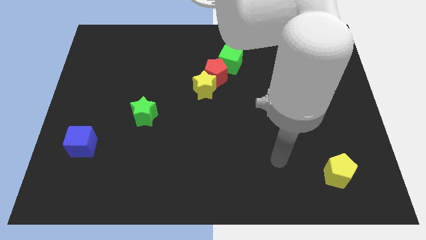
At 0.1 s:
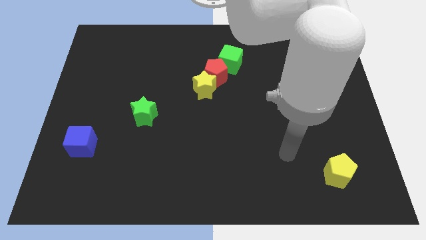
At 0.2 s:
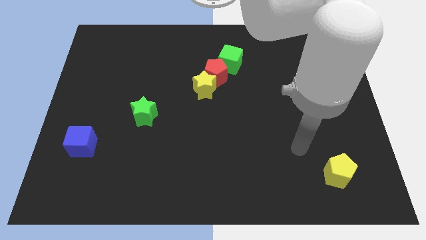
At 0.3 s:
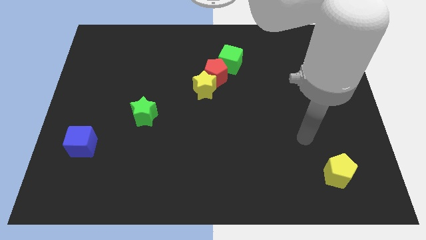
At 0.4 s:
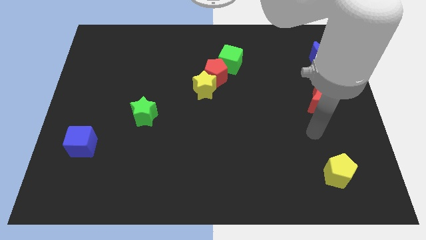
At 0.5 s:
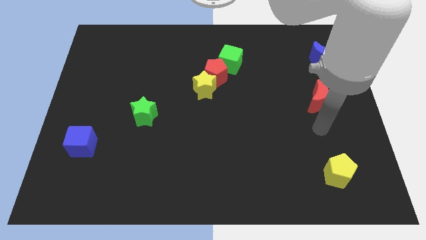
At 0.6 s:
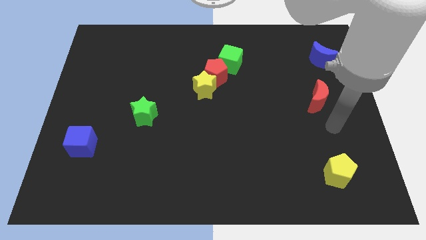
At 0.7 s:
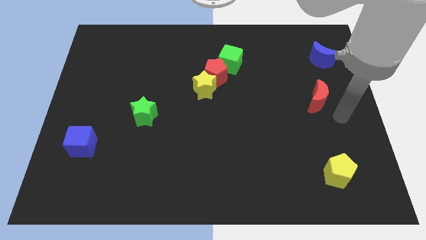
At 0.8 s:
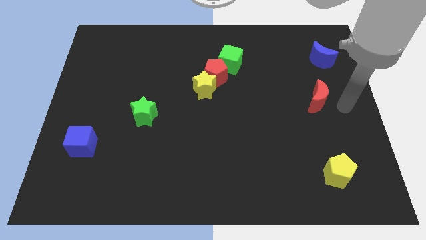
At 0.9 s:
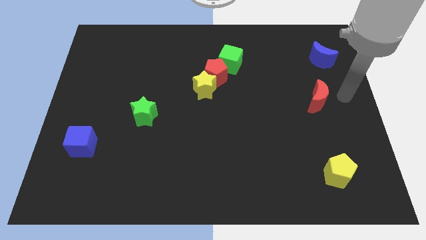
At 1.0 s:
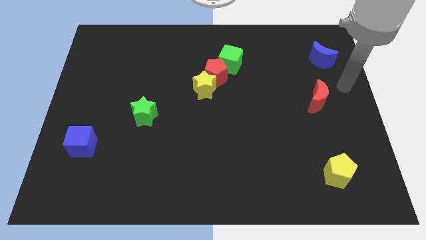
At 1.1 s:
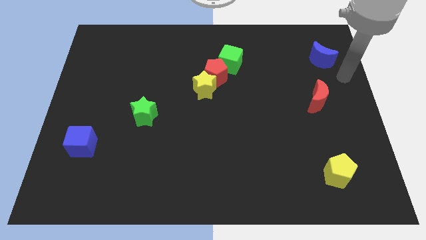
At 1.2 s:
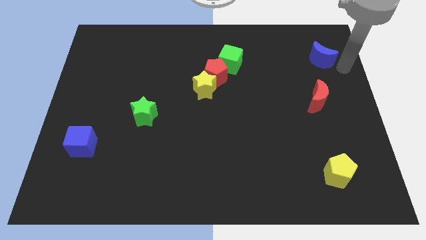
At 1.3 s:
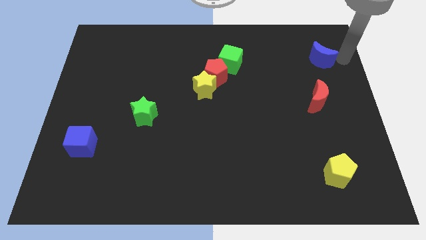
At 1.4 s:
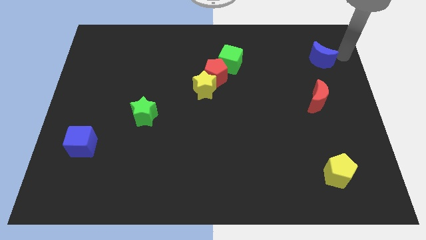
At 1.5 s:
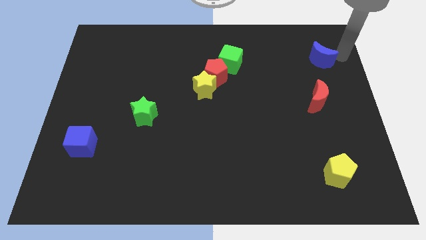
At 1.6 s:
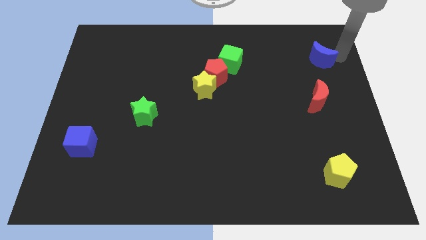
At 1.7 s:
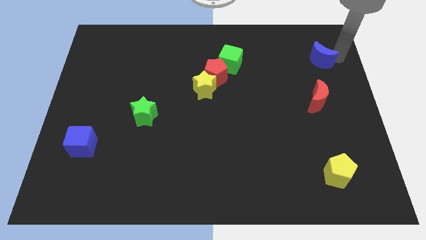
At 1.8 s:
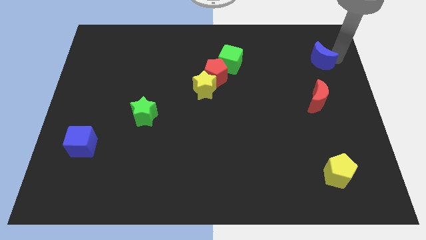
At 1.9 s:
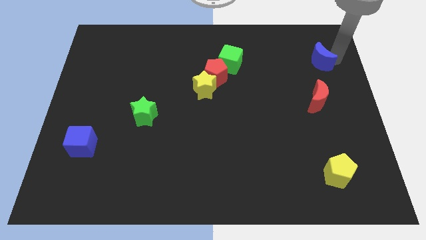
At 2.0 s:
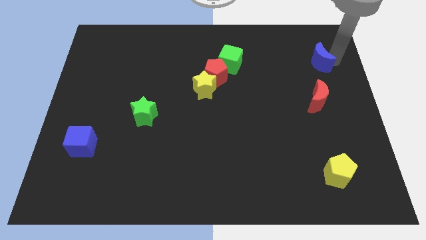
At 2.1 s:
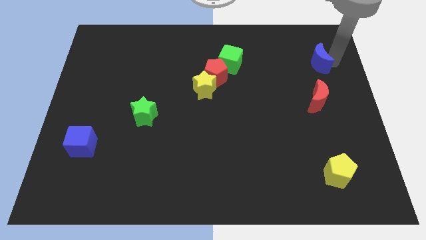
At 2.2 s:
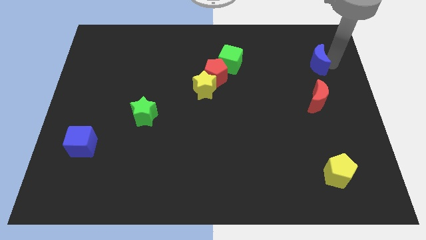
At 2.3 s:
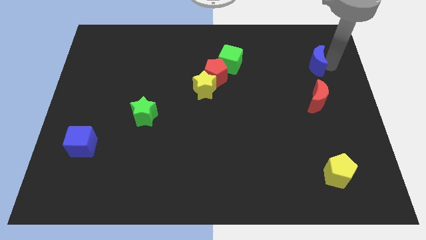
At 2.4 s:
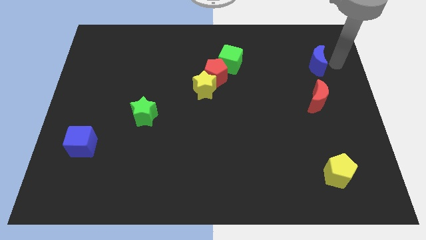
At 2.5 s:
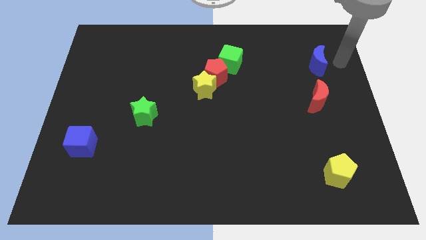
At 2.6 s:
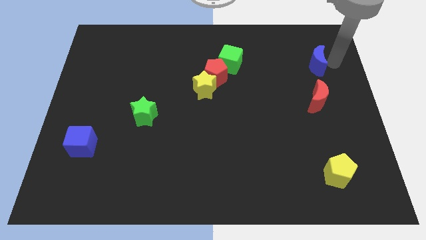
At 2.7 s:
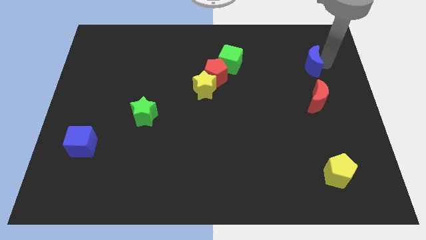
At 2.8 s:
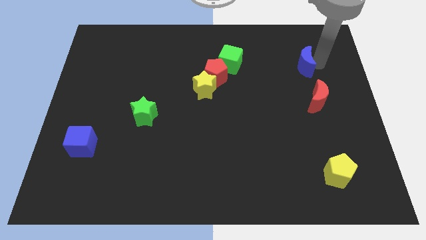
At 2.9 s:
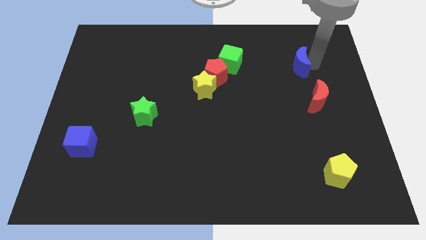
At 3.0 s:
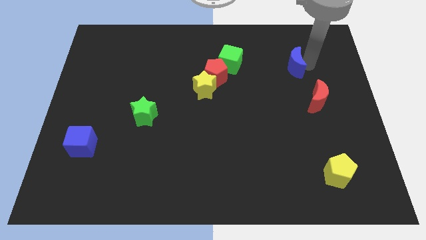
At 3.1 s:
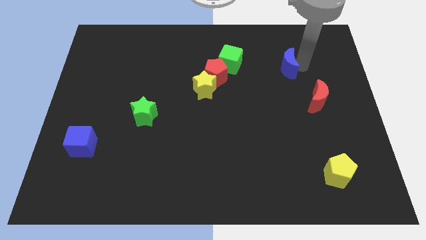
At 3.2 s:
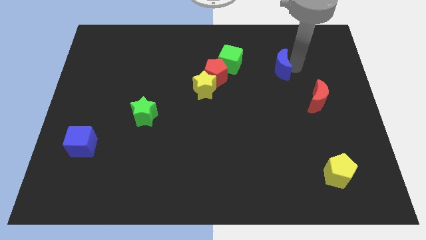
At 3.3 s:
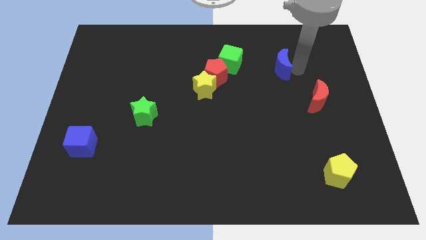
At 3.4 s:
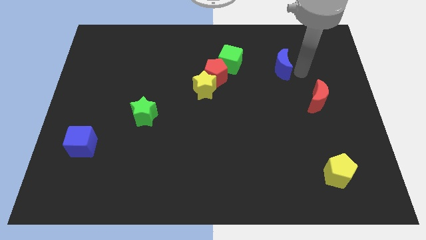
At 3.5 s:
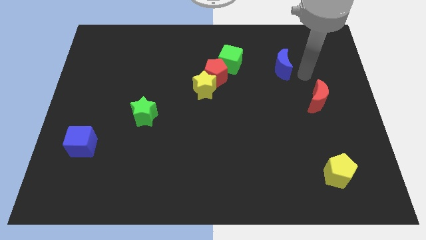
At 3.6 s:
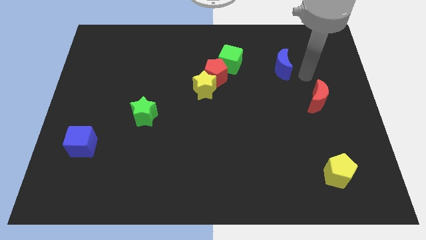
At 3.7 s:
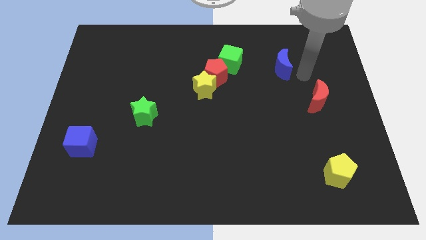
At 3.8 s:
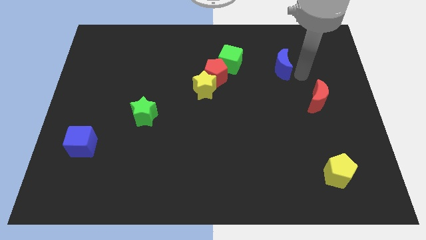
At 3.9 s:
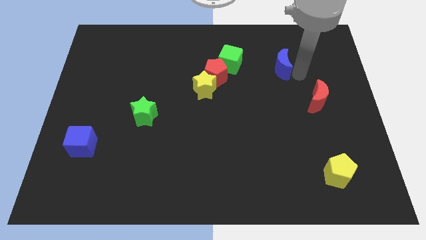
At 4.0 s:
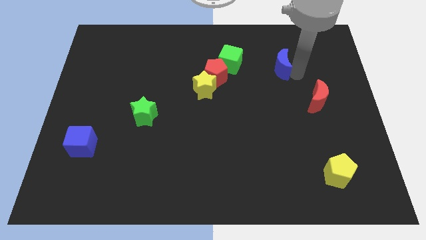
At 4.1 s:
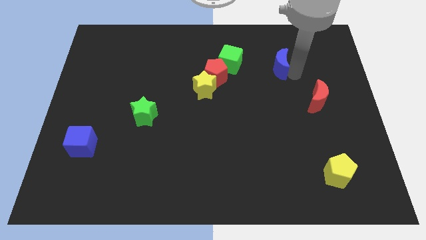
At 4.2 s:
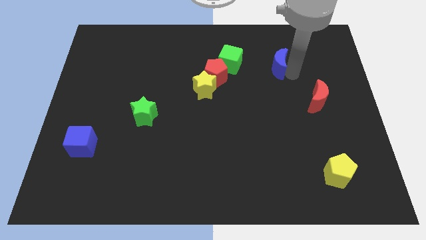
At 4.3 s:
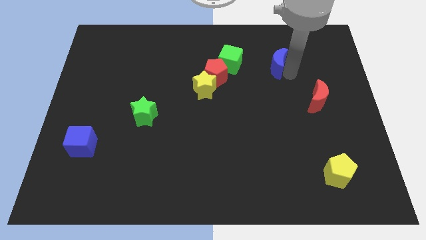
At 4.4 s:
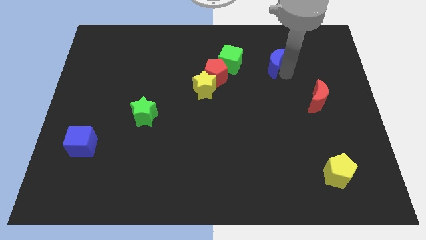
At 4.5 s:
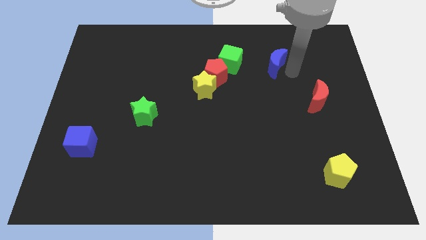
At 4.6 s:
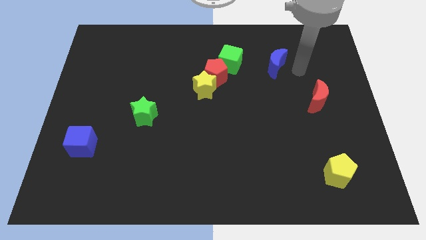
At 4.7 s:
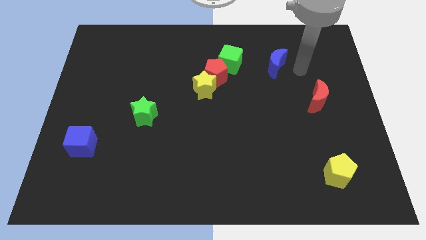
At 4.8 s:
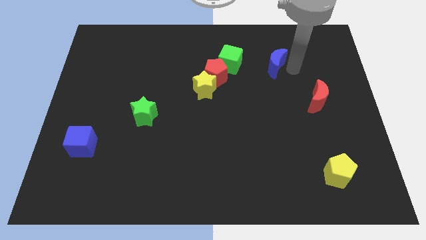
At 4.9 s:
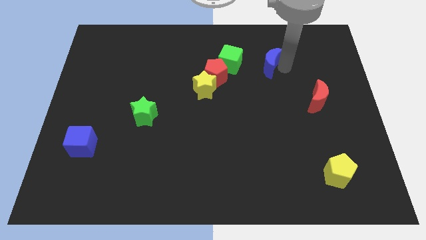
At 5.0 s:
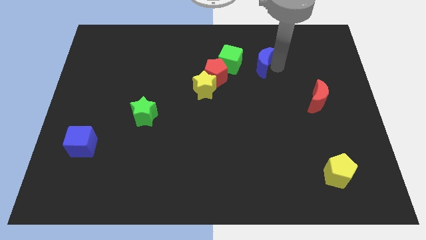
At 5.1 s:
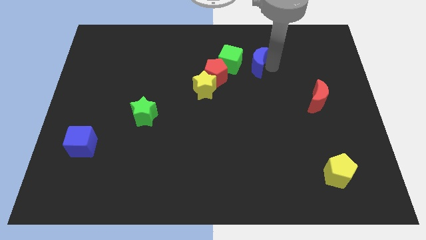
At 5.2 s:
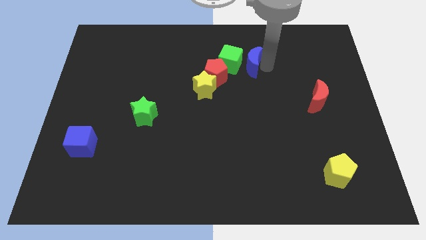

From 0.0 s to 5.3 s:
move the blue moon next to the green cube

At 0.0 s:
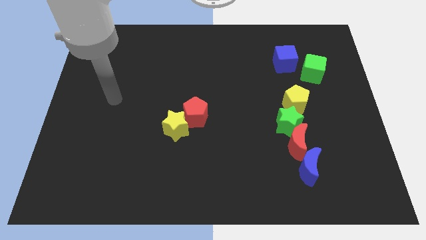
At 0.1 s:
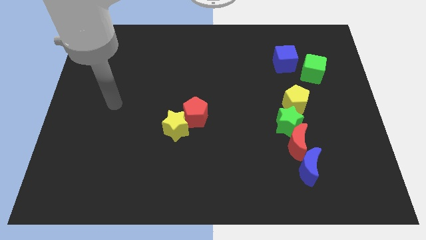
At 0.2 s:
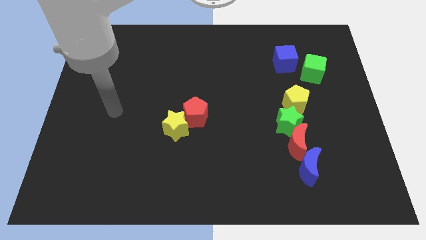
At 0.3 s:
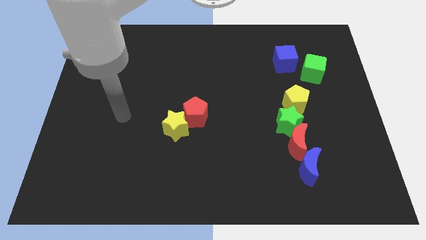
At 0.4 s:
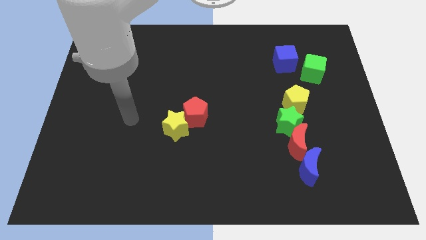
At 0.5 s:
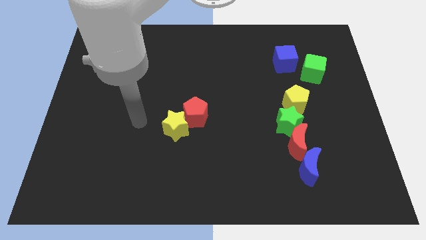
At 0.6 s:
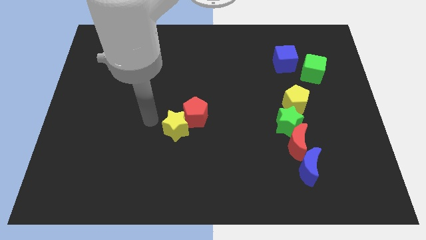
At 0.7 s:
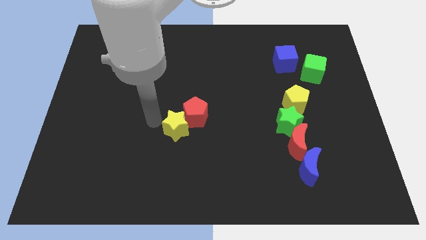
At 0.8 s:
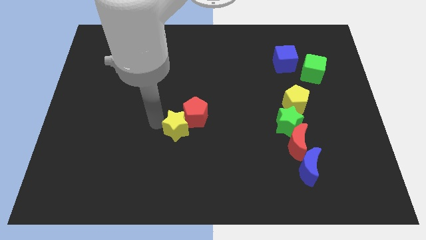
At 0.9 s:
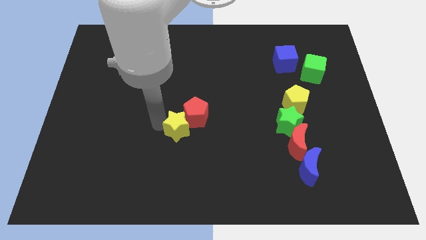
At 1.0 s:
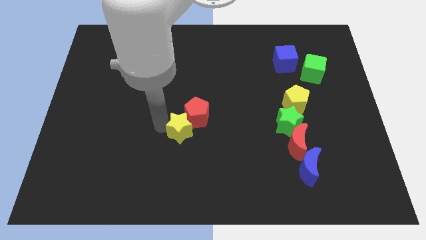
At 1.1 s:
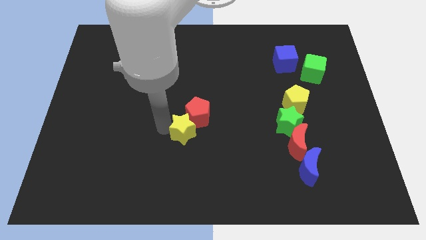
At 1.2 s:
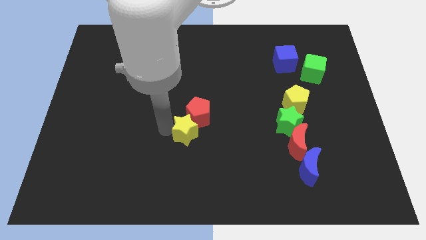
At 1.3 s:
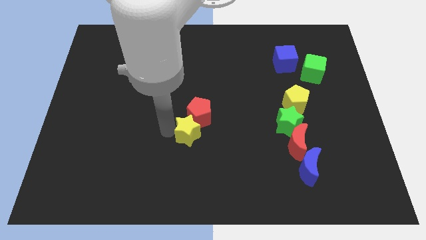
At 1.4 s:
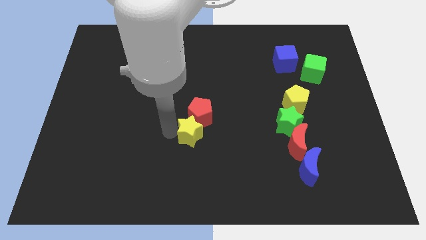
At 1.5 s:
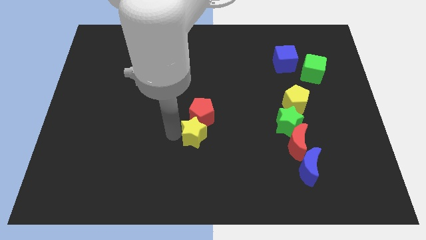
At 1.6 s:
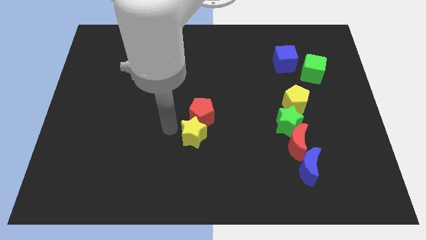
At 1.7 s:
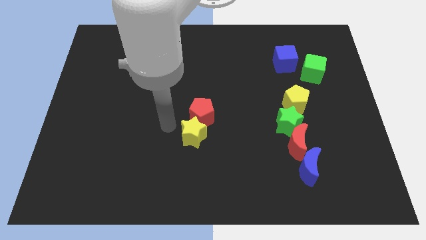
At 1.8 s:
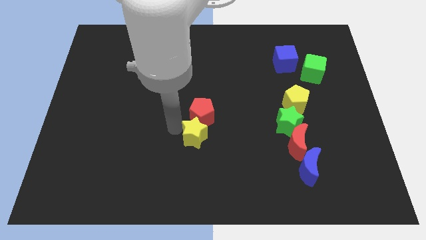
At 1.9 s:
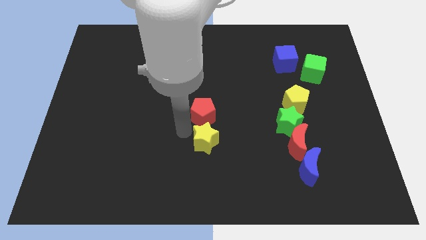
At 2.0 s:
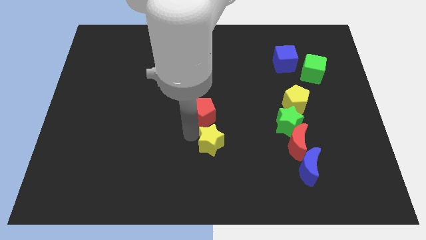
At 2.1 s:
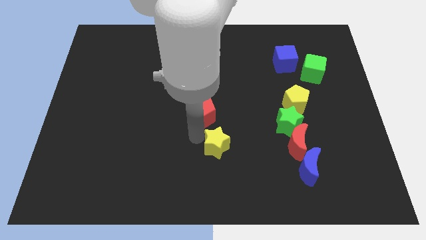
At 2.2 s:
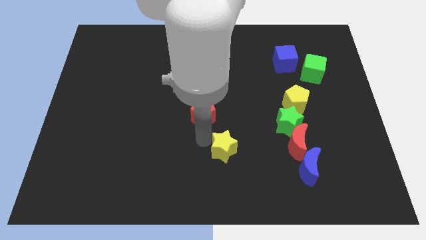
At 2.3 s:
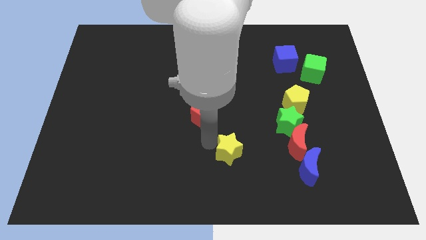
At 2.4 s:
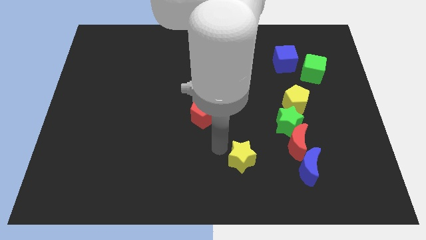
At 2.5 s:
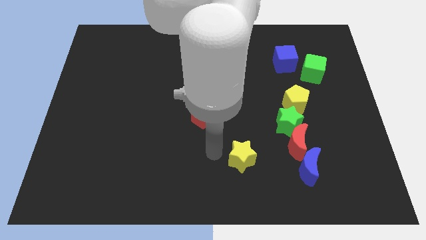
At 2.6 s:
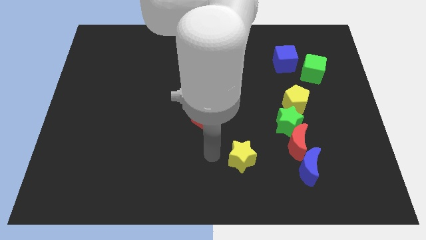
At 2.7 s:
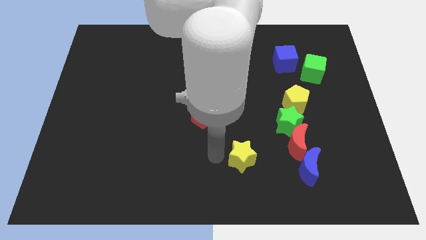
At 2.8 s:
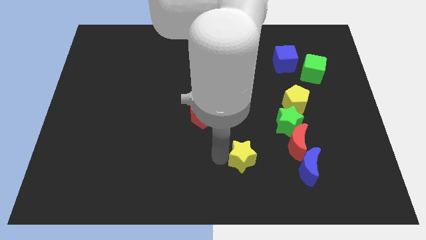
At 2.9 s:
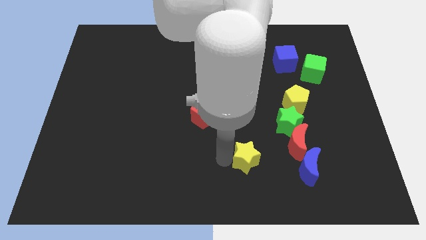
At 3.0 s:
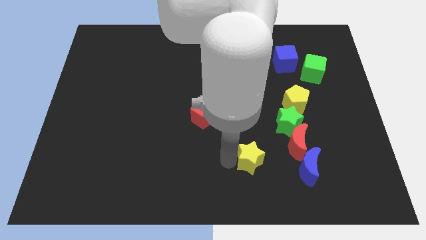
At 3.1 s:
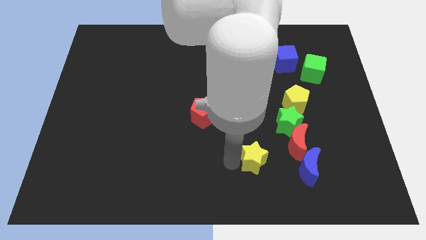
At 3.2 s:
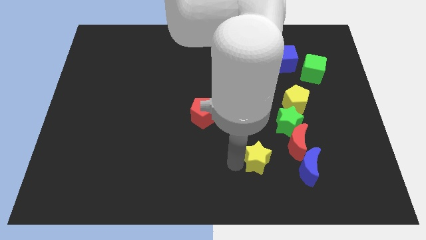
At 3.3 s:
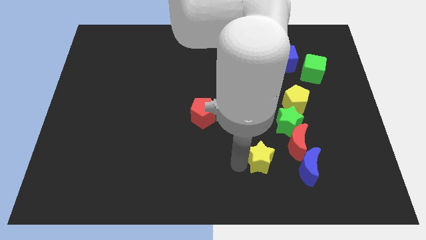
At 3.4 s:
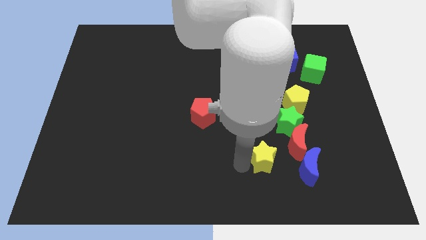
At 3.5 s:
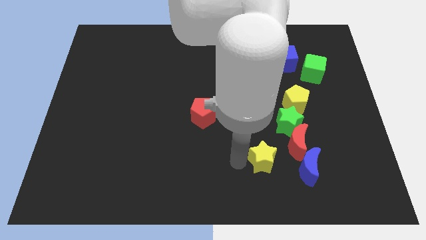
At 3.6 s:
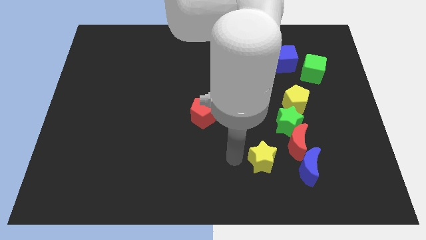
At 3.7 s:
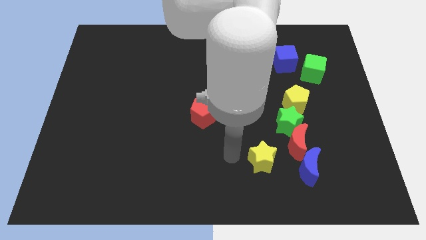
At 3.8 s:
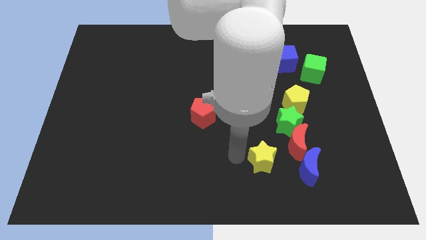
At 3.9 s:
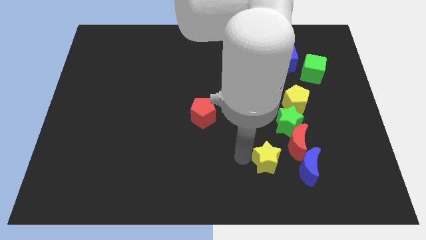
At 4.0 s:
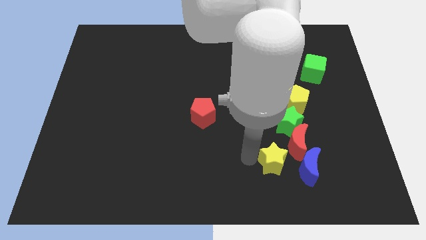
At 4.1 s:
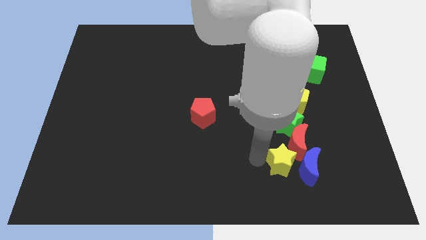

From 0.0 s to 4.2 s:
push the yellow star close to the blue moon
